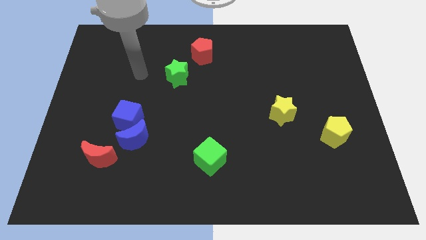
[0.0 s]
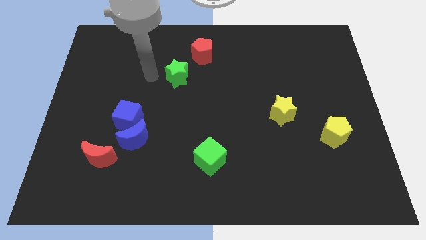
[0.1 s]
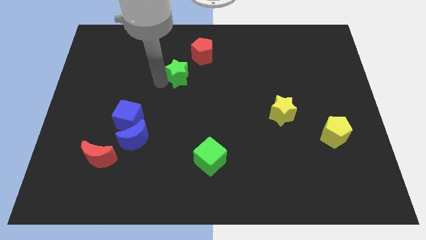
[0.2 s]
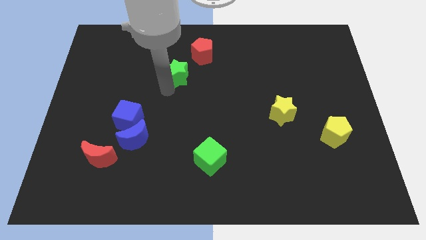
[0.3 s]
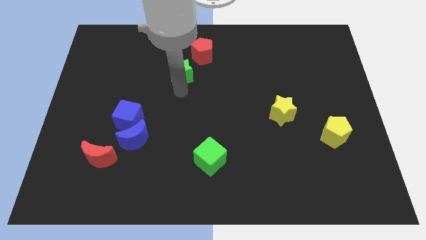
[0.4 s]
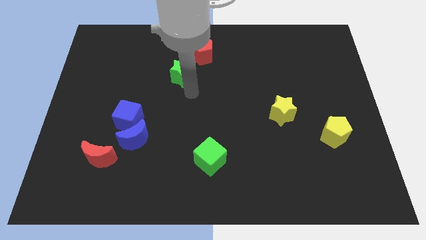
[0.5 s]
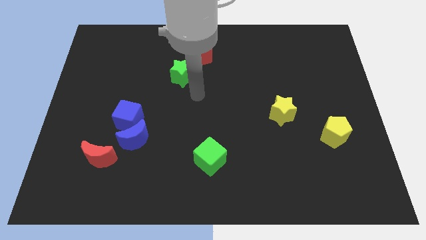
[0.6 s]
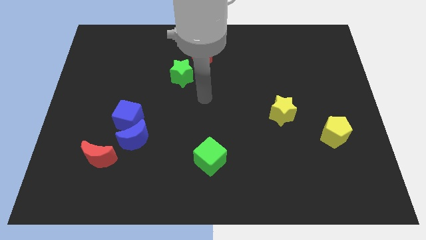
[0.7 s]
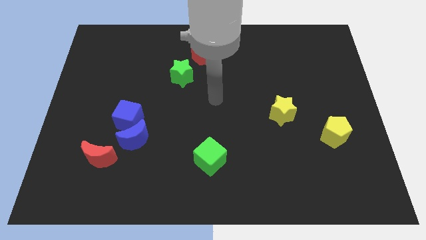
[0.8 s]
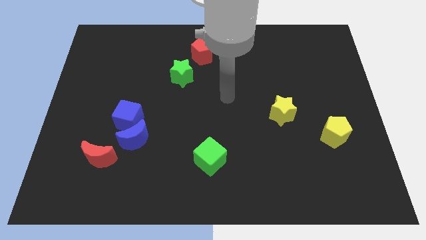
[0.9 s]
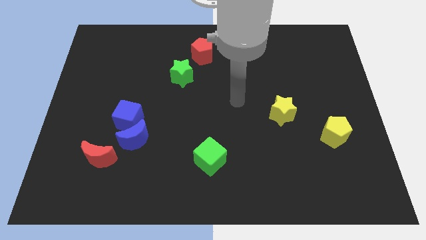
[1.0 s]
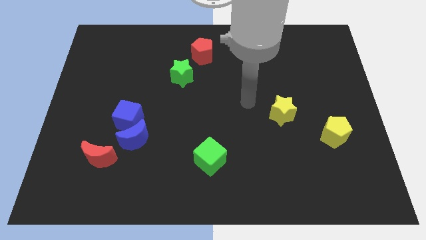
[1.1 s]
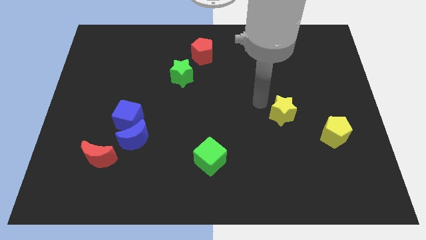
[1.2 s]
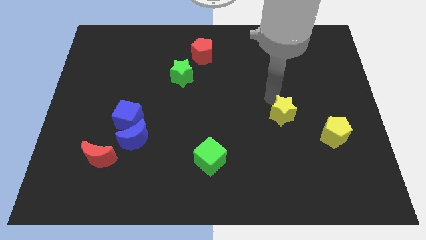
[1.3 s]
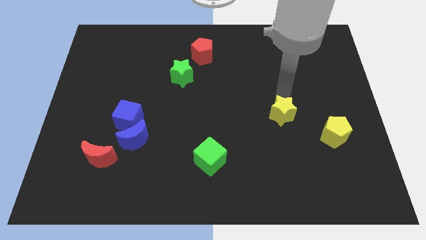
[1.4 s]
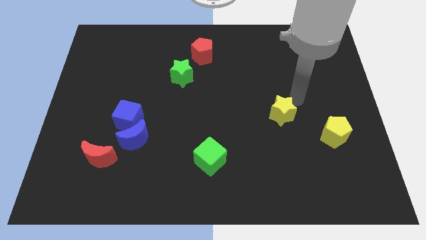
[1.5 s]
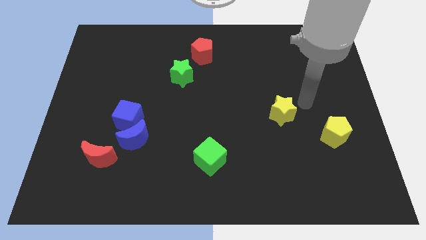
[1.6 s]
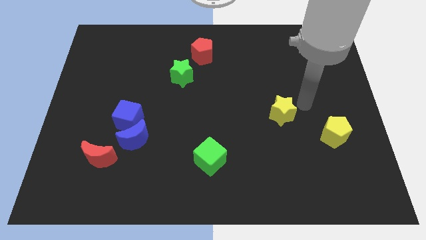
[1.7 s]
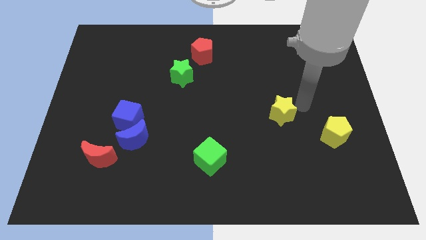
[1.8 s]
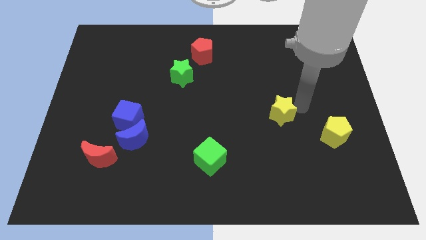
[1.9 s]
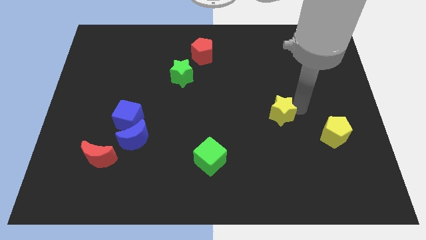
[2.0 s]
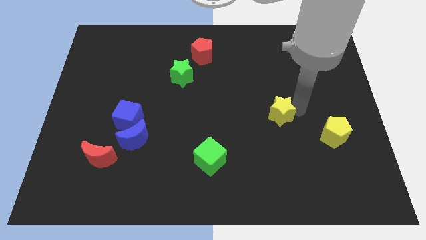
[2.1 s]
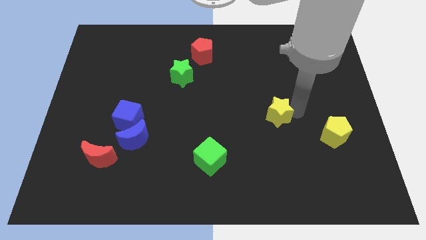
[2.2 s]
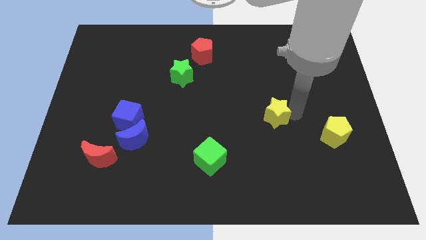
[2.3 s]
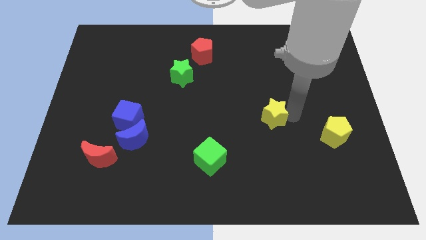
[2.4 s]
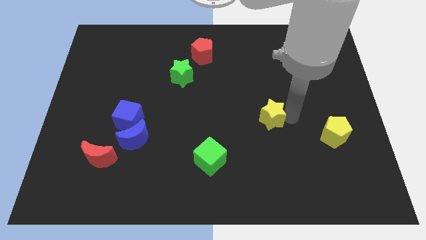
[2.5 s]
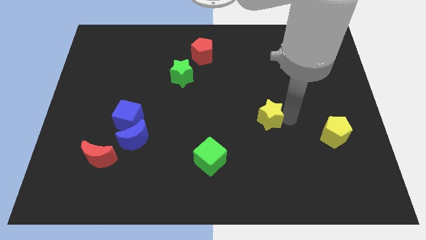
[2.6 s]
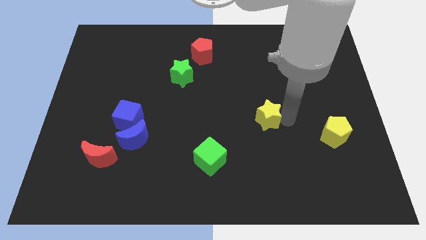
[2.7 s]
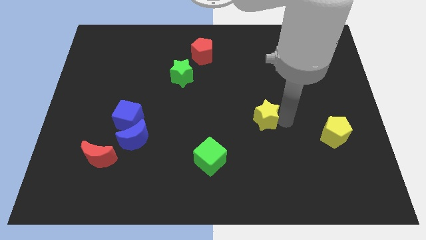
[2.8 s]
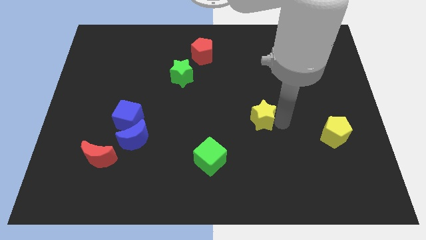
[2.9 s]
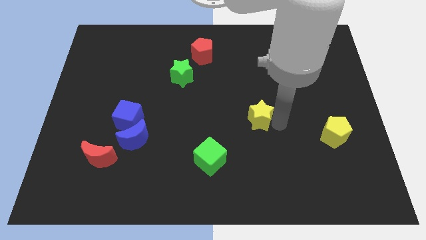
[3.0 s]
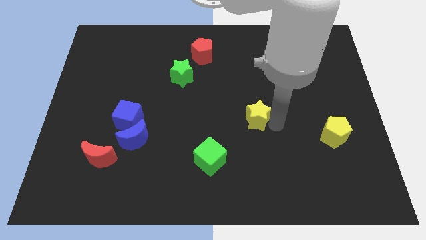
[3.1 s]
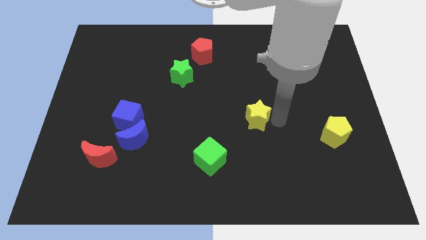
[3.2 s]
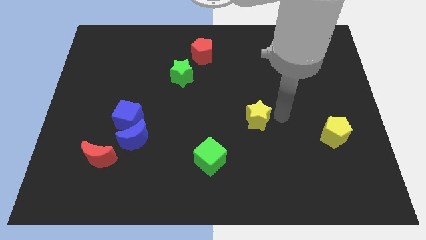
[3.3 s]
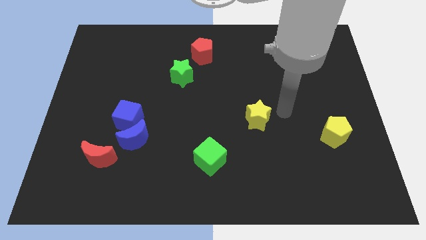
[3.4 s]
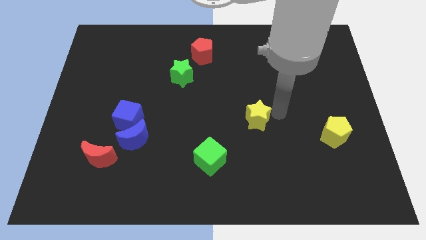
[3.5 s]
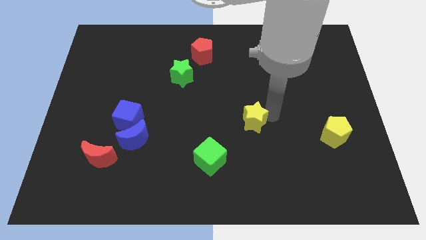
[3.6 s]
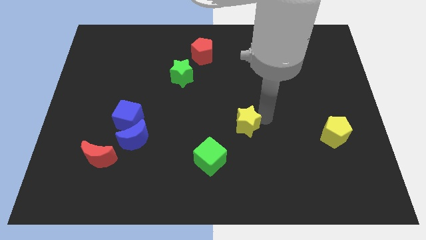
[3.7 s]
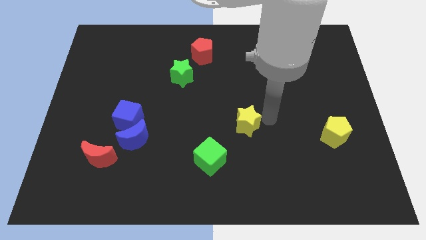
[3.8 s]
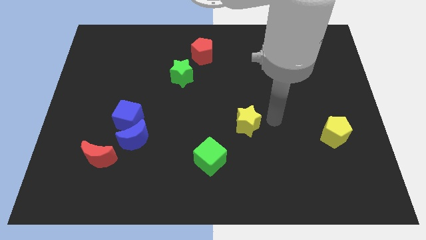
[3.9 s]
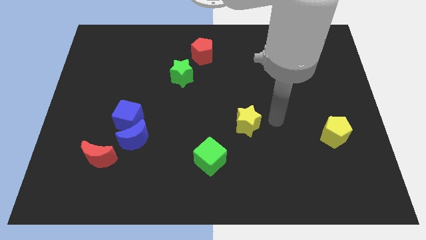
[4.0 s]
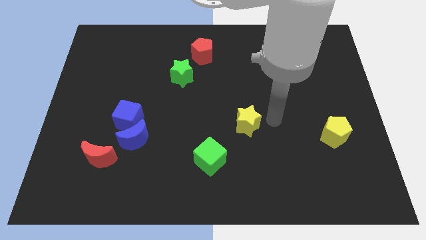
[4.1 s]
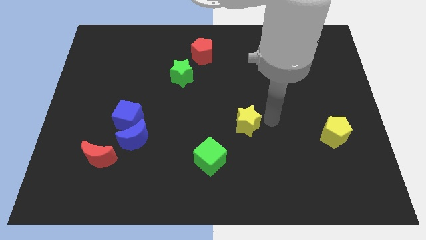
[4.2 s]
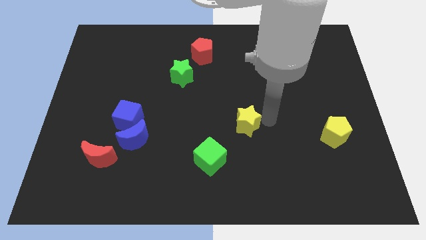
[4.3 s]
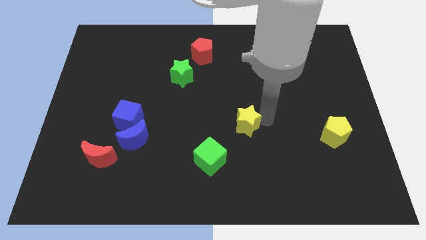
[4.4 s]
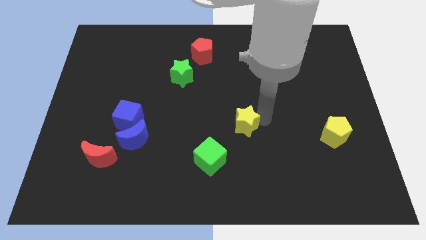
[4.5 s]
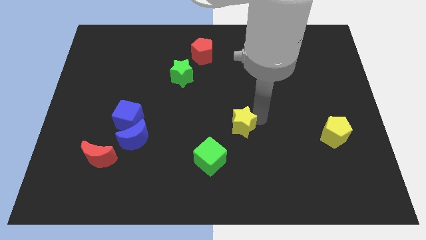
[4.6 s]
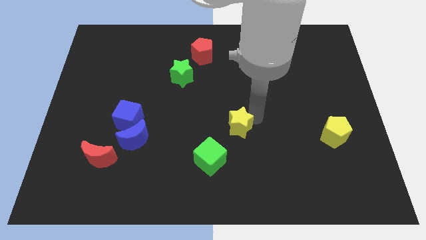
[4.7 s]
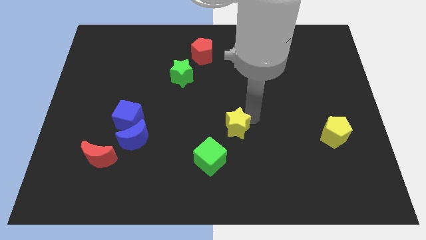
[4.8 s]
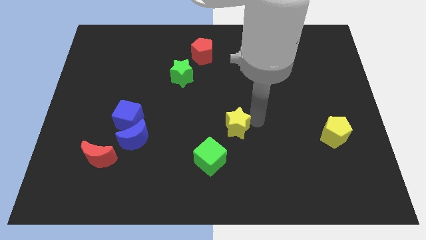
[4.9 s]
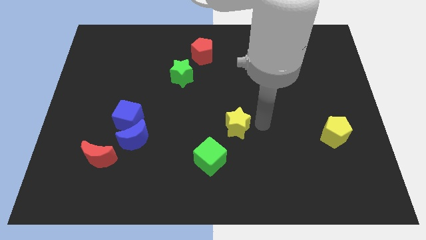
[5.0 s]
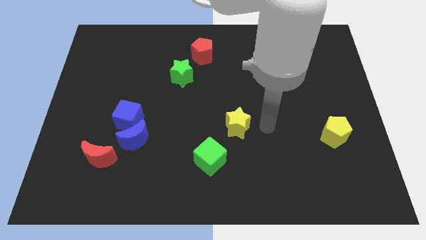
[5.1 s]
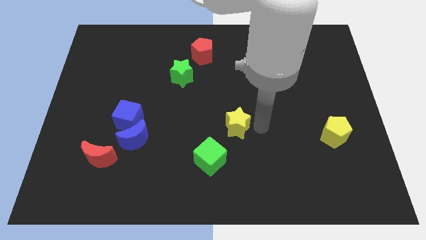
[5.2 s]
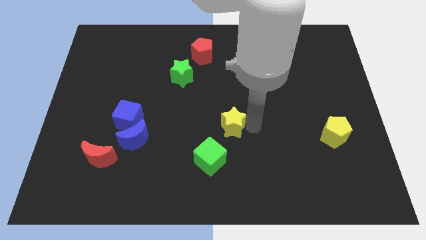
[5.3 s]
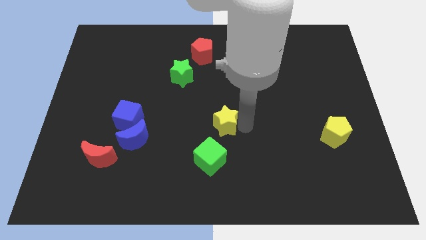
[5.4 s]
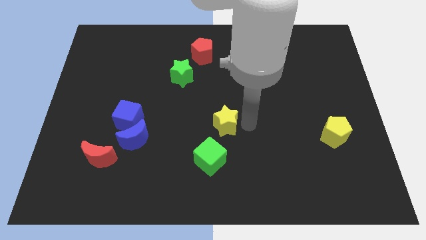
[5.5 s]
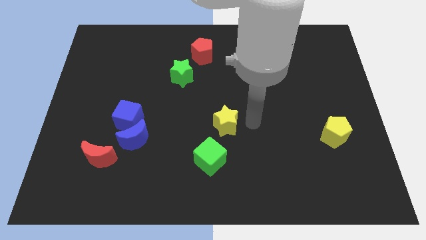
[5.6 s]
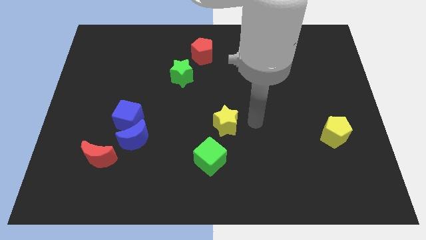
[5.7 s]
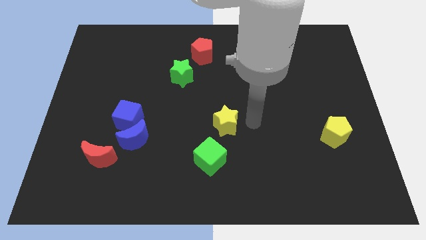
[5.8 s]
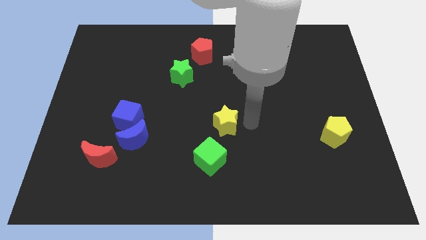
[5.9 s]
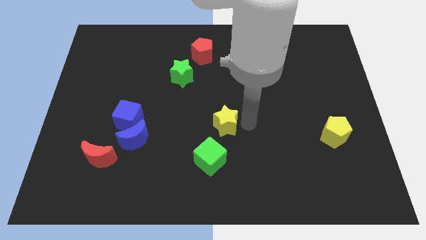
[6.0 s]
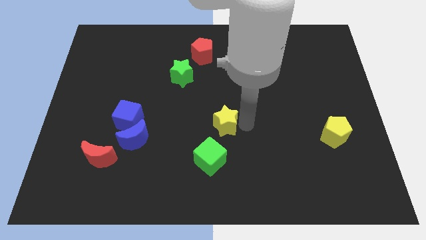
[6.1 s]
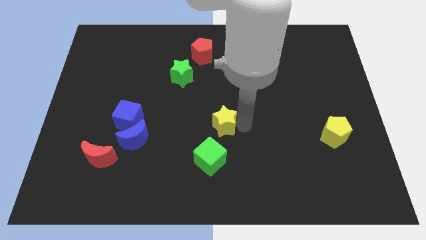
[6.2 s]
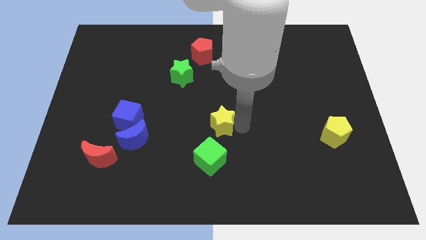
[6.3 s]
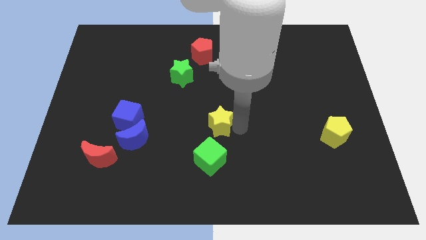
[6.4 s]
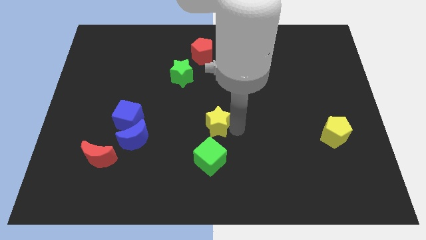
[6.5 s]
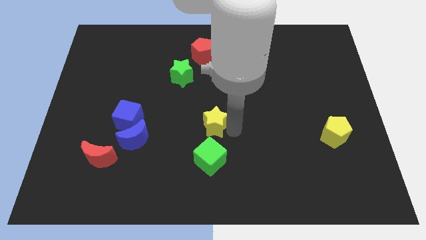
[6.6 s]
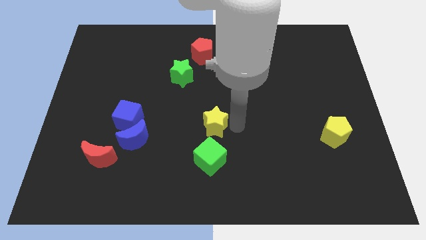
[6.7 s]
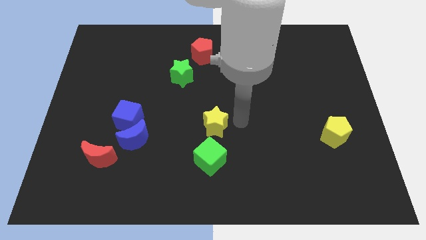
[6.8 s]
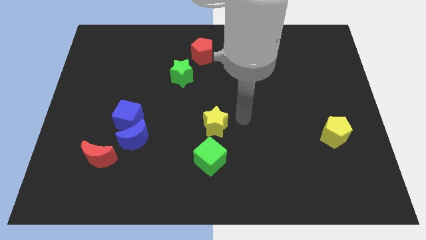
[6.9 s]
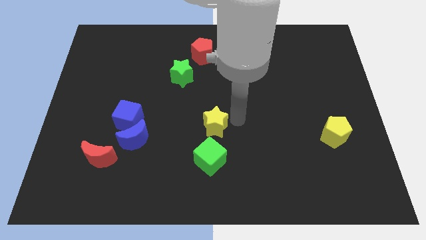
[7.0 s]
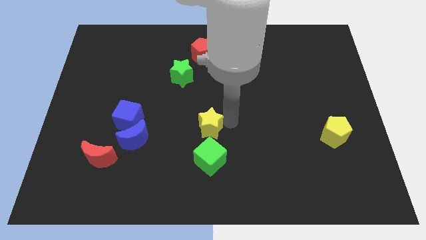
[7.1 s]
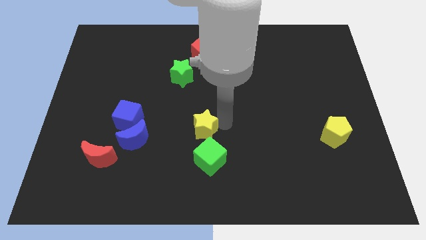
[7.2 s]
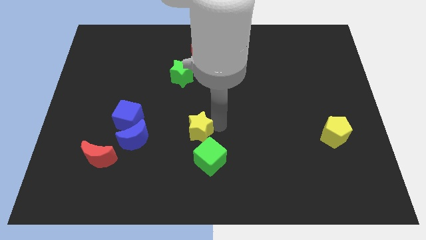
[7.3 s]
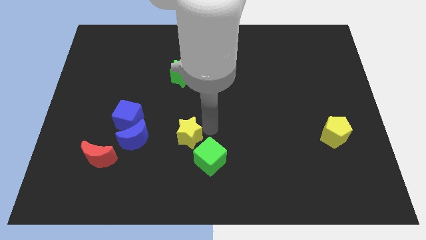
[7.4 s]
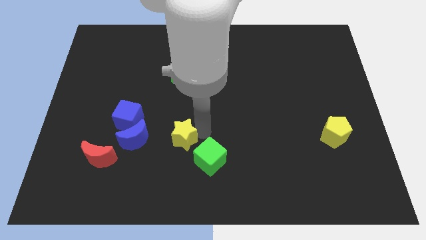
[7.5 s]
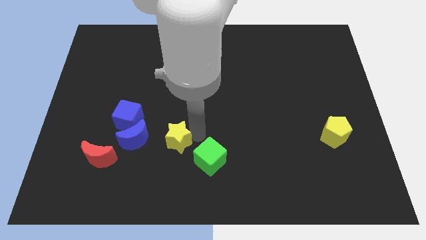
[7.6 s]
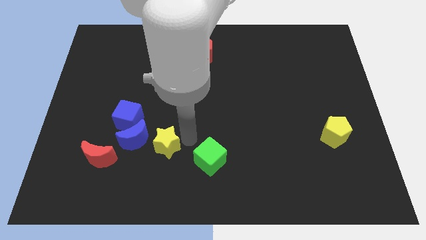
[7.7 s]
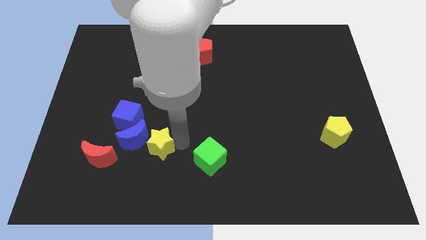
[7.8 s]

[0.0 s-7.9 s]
push the yellow star next to the blue moon
